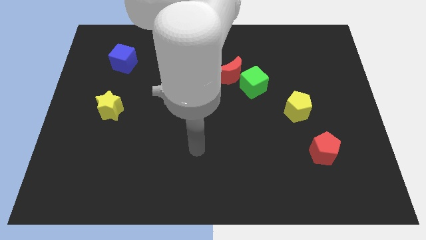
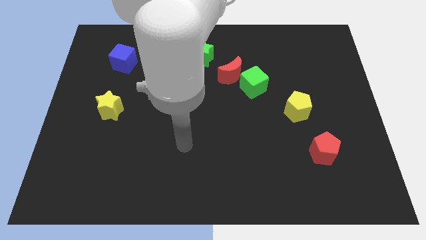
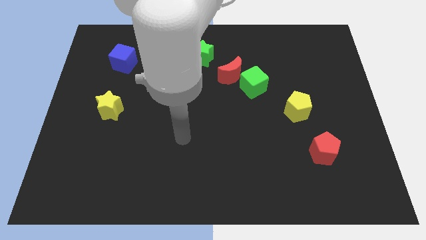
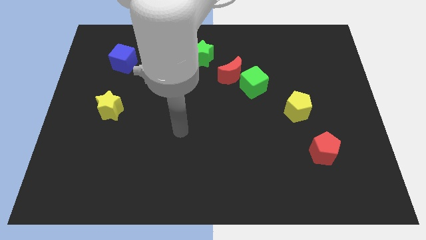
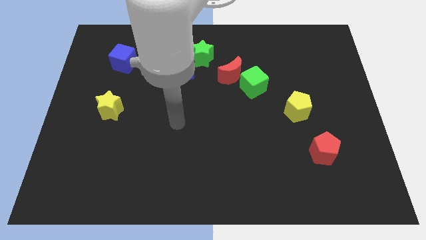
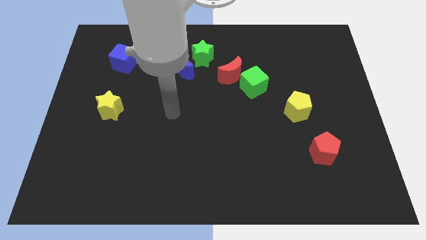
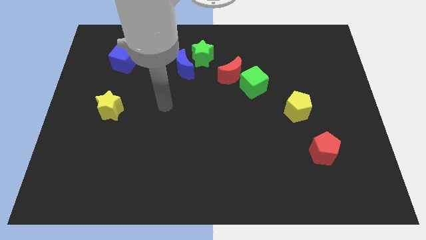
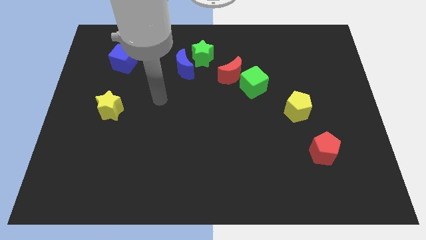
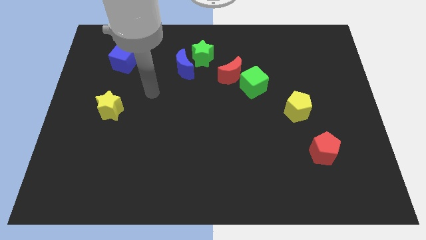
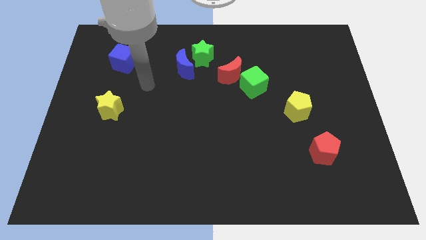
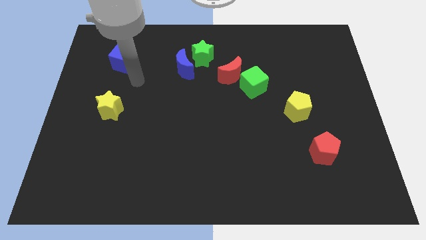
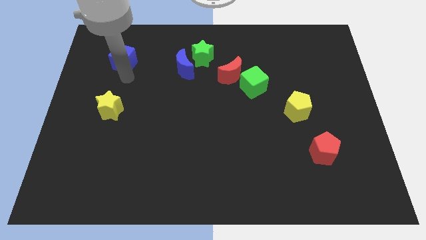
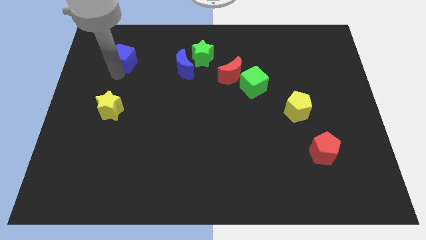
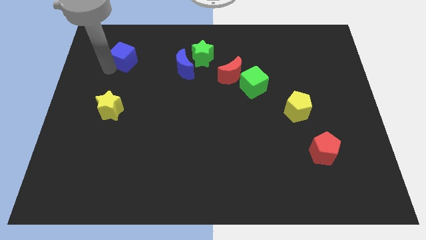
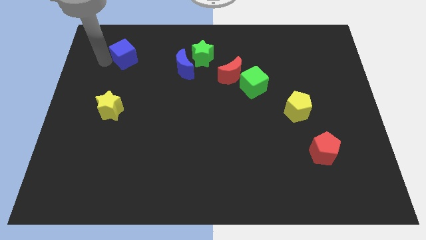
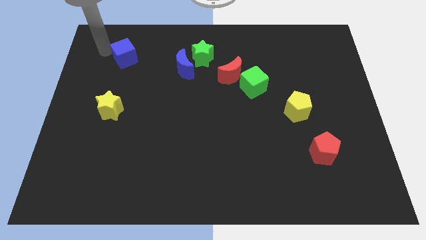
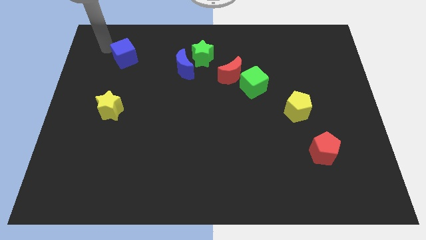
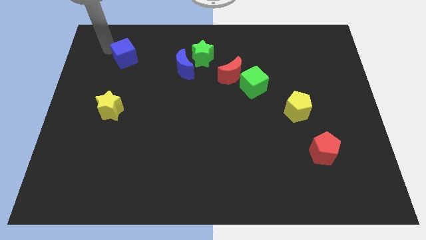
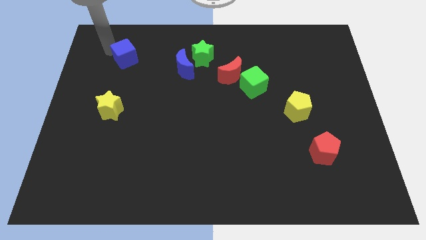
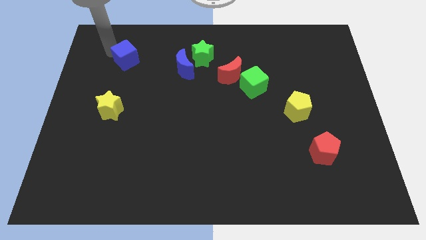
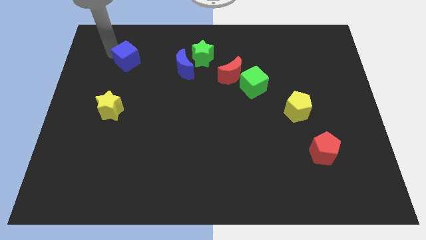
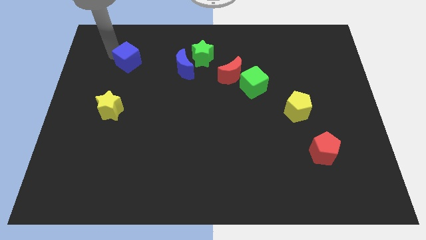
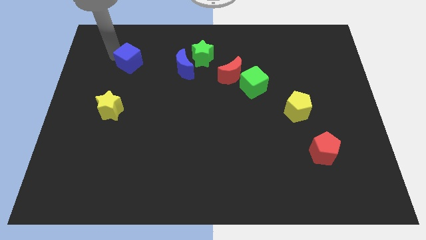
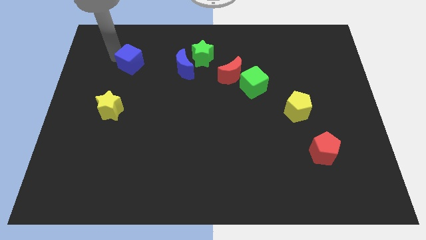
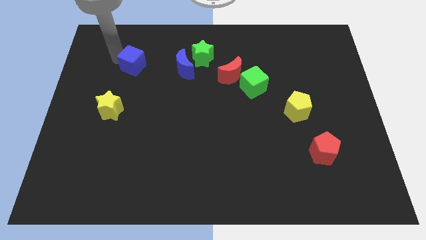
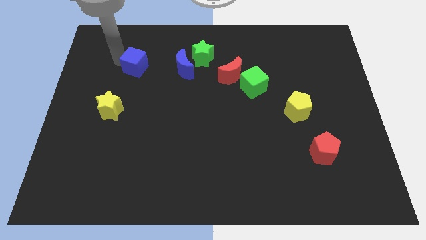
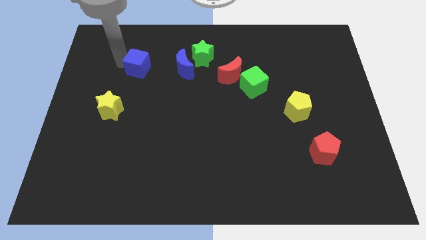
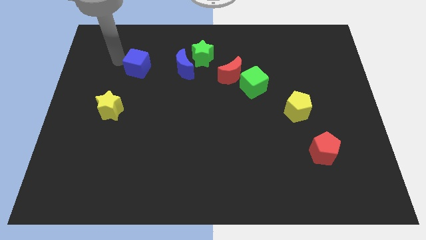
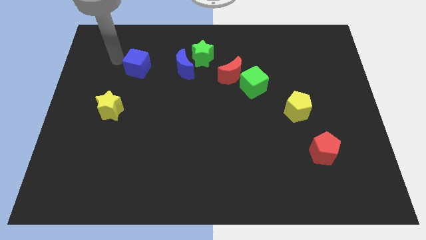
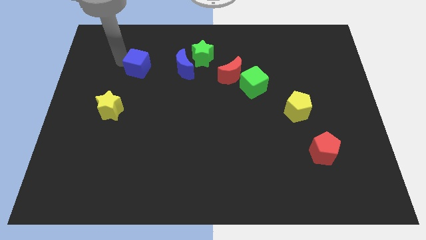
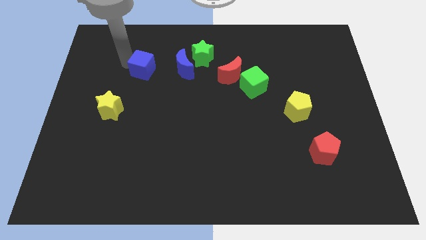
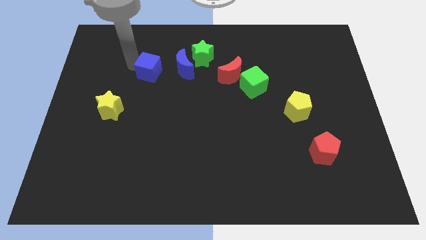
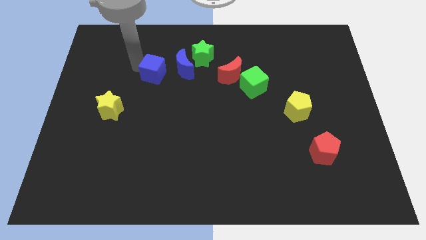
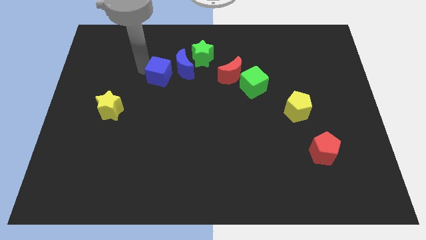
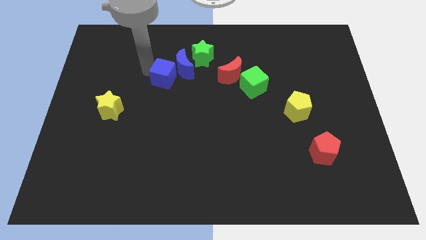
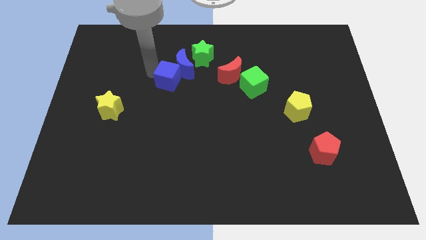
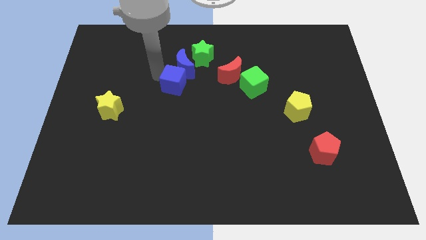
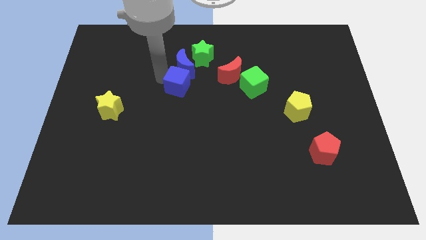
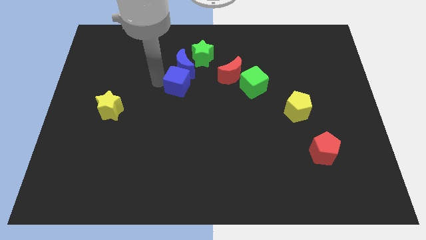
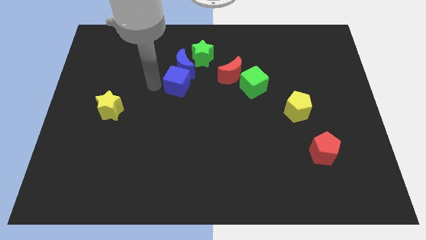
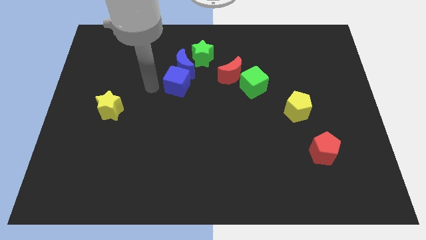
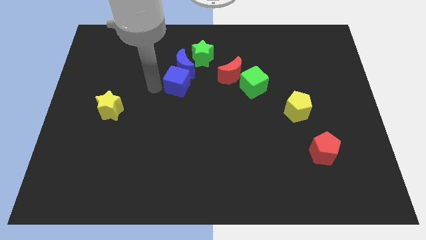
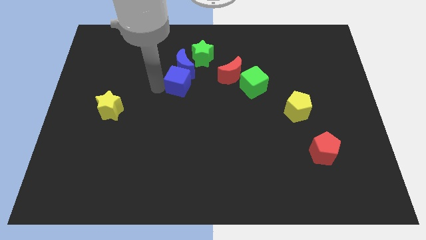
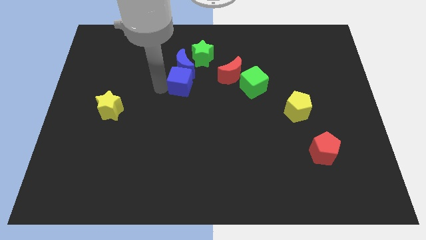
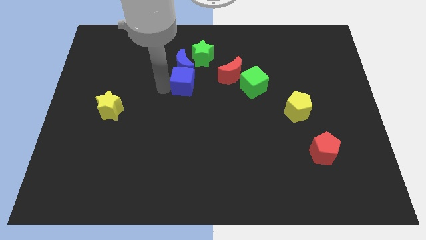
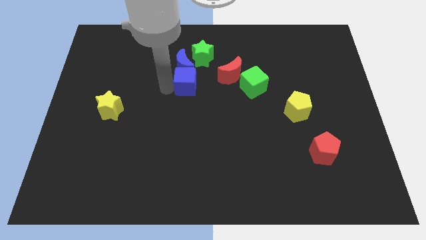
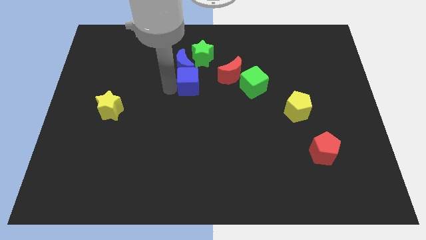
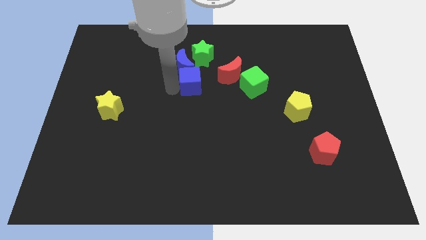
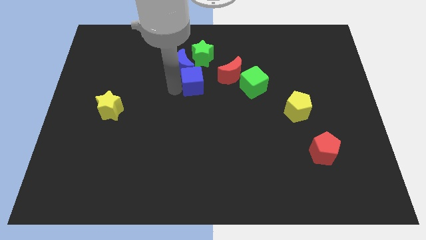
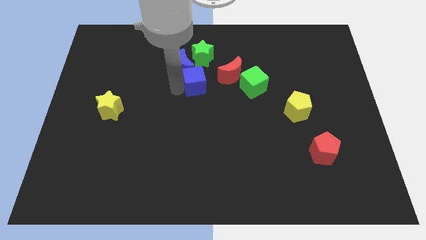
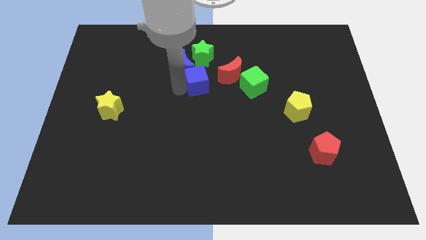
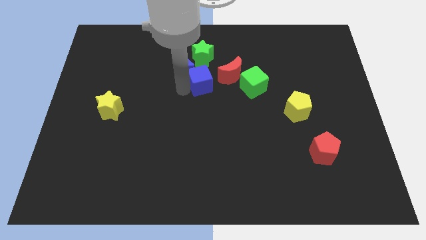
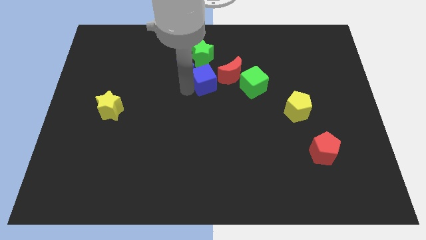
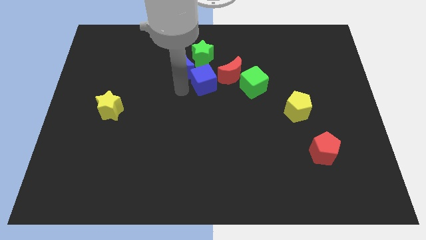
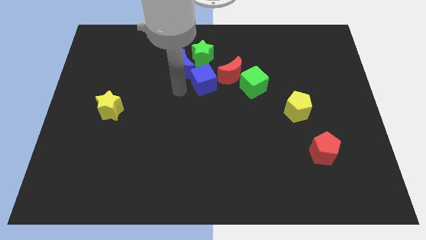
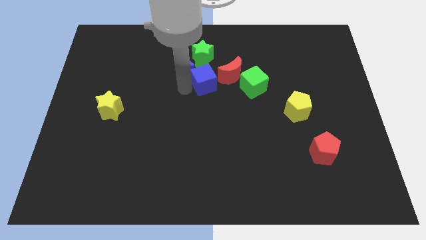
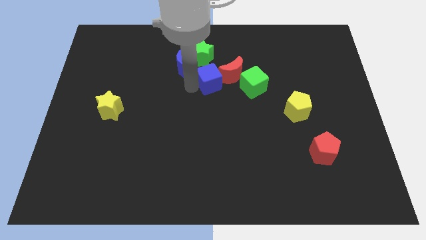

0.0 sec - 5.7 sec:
push the blue cube to the red moon
